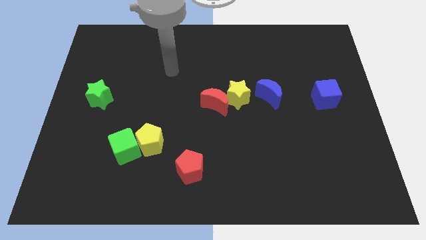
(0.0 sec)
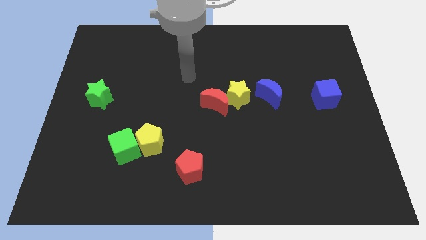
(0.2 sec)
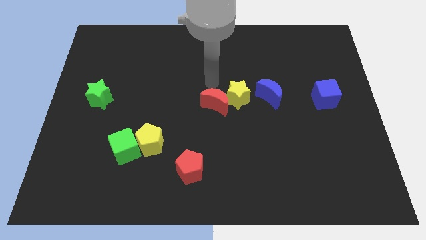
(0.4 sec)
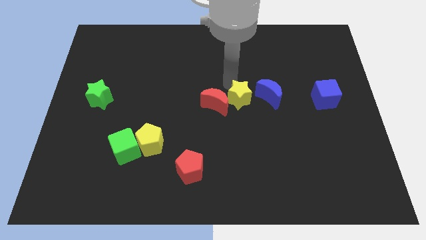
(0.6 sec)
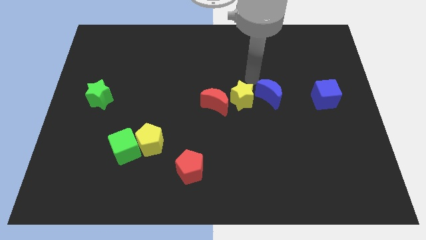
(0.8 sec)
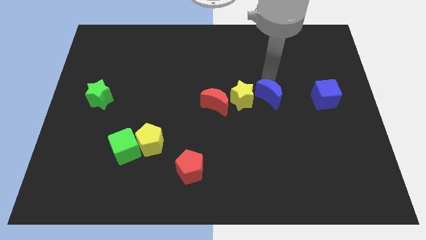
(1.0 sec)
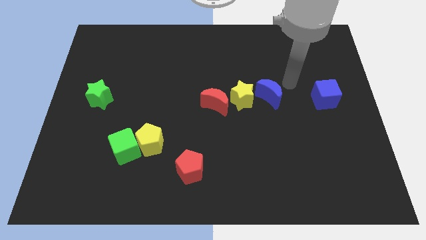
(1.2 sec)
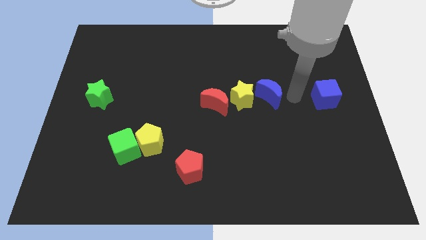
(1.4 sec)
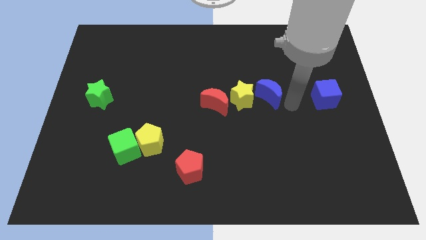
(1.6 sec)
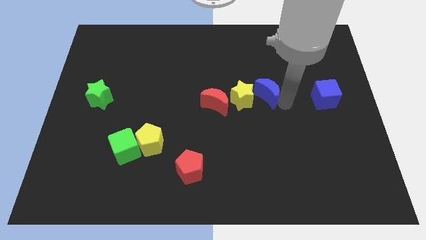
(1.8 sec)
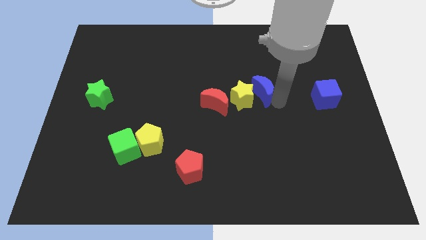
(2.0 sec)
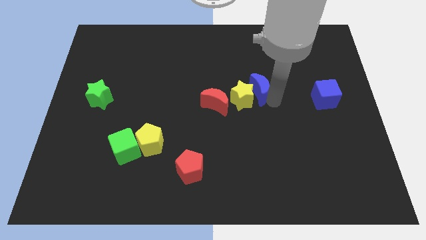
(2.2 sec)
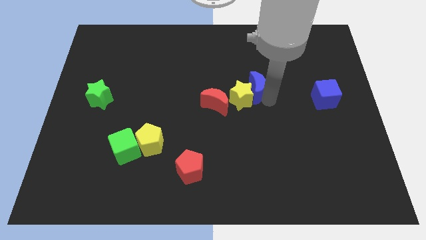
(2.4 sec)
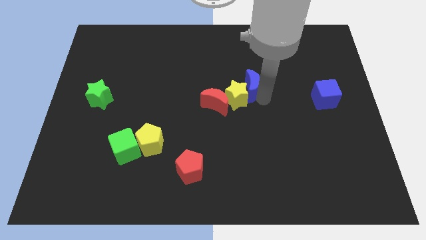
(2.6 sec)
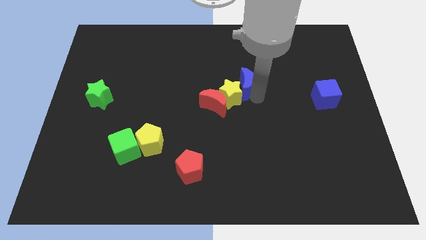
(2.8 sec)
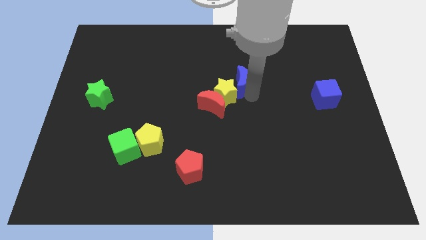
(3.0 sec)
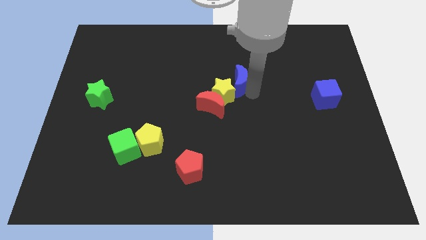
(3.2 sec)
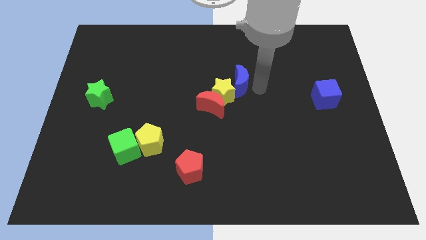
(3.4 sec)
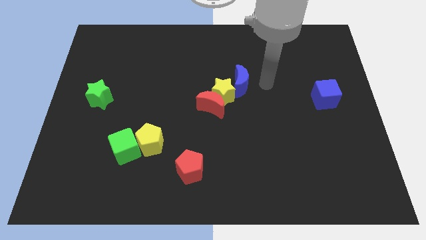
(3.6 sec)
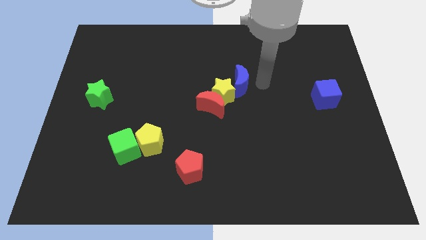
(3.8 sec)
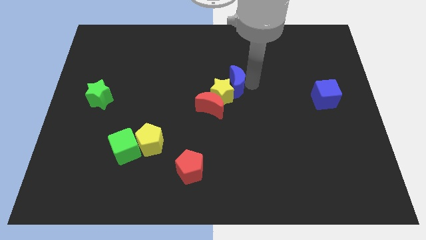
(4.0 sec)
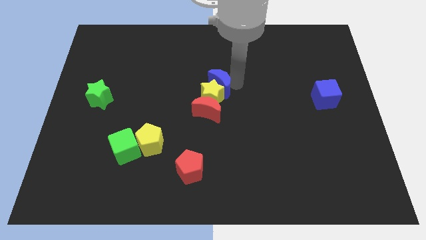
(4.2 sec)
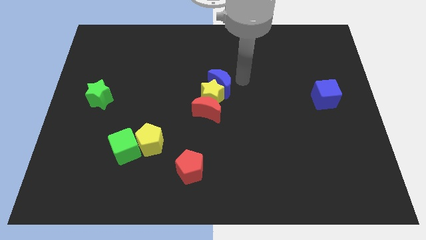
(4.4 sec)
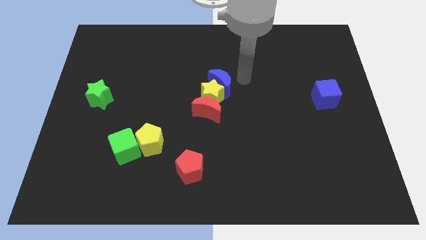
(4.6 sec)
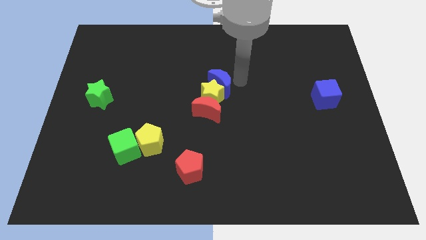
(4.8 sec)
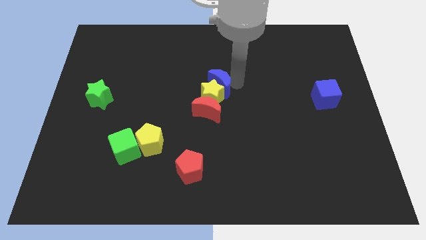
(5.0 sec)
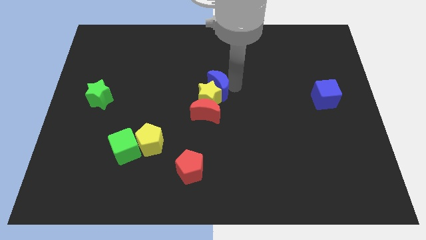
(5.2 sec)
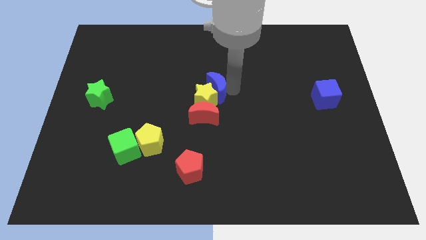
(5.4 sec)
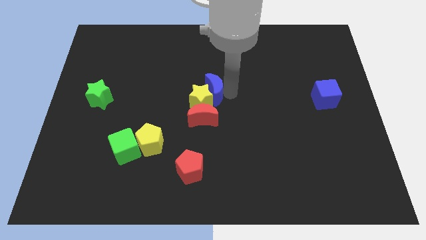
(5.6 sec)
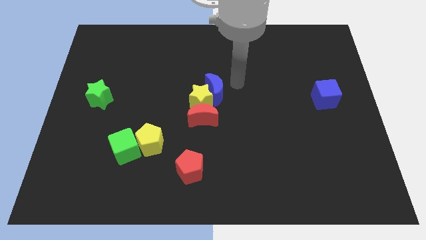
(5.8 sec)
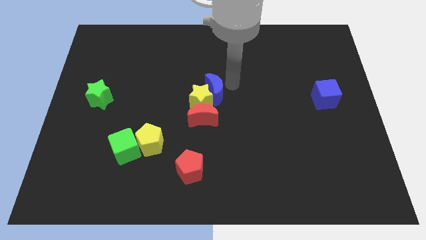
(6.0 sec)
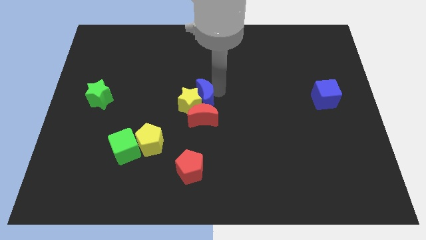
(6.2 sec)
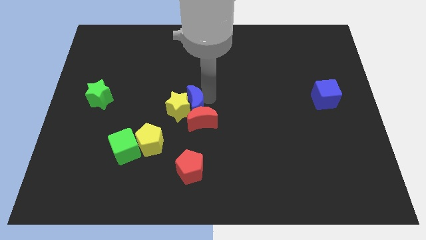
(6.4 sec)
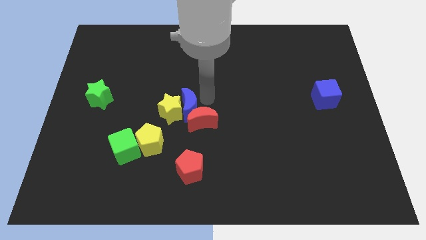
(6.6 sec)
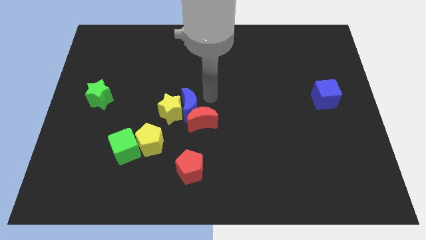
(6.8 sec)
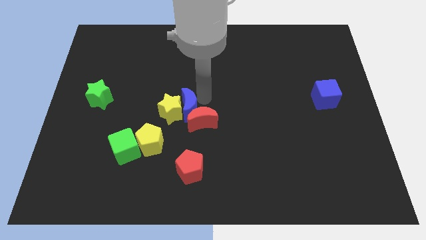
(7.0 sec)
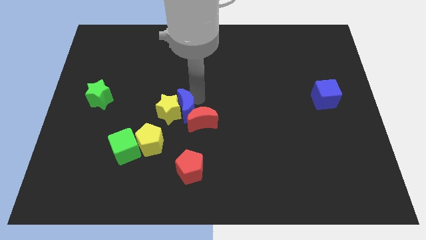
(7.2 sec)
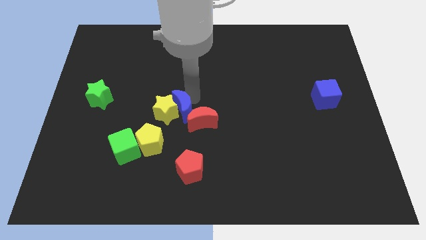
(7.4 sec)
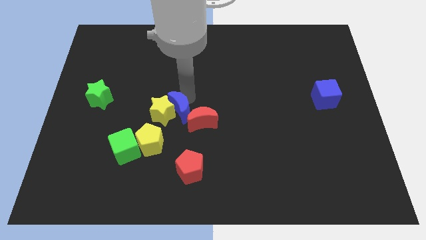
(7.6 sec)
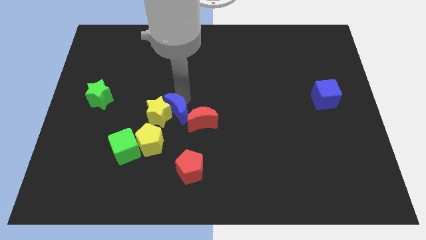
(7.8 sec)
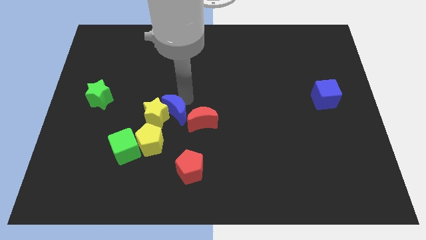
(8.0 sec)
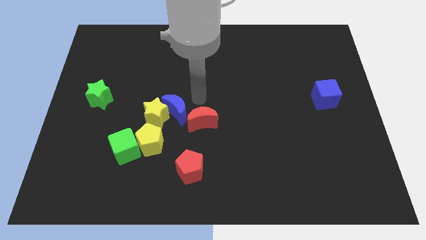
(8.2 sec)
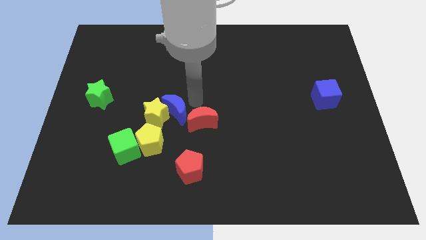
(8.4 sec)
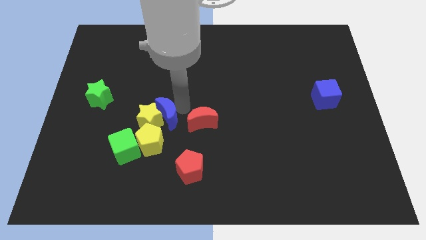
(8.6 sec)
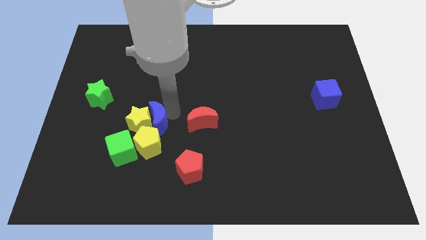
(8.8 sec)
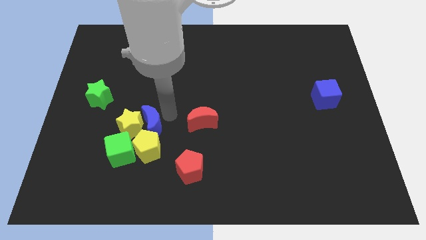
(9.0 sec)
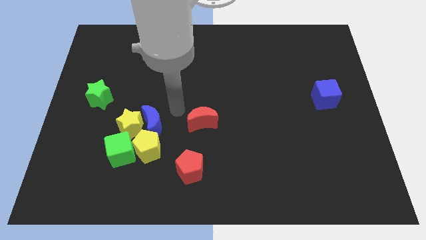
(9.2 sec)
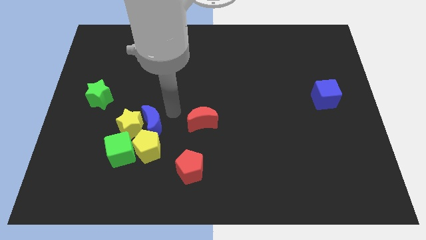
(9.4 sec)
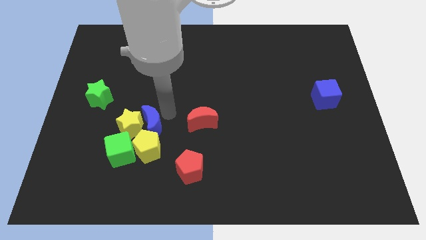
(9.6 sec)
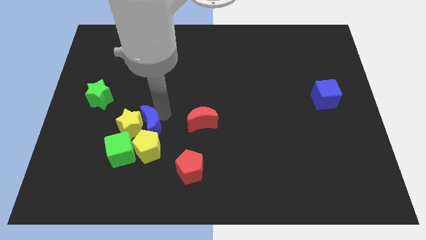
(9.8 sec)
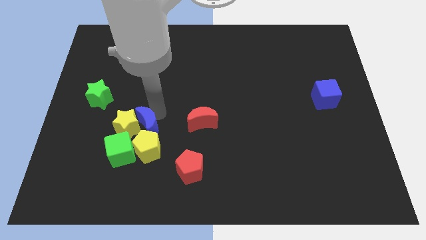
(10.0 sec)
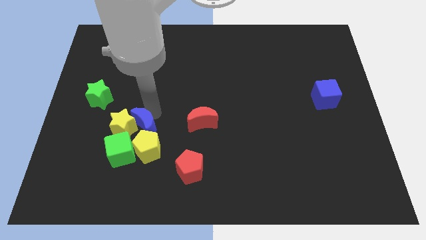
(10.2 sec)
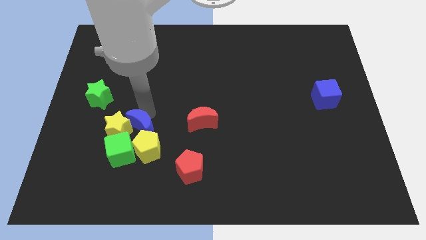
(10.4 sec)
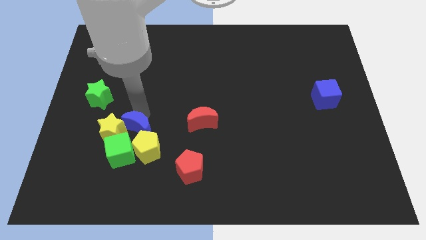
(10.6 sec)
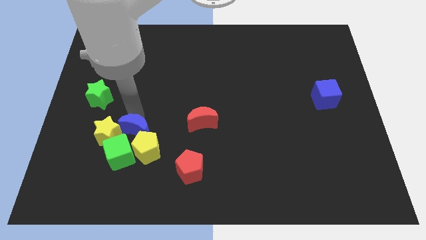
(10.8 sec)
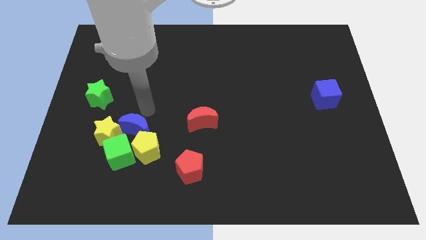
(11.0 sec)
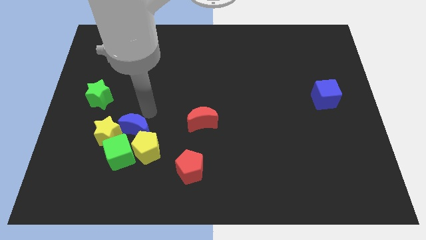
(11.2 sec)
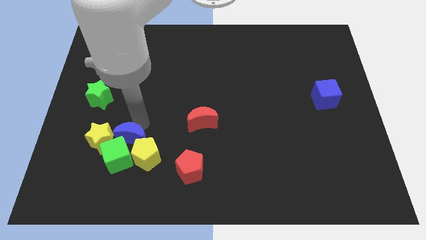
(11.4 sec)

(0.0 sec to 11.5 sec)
move the blue moon towards the green cube
